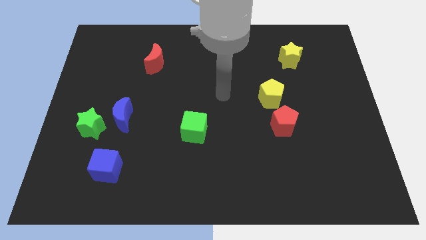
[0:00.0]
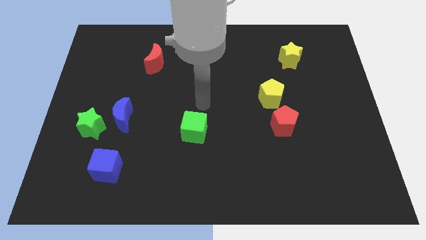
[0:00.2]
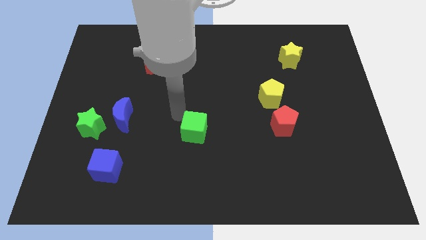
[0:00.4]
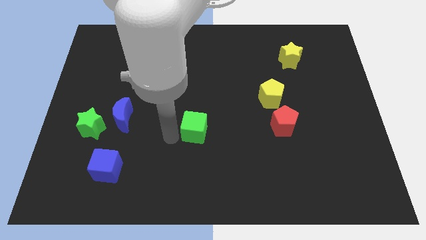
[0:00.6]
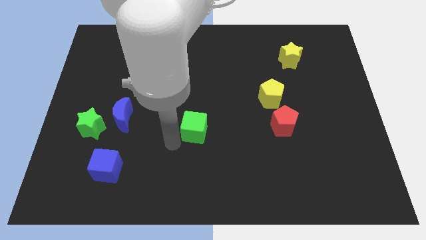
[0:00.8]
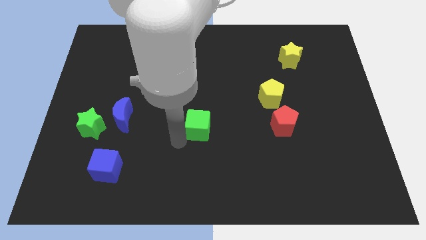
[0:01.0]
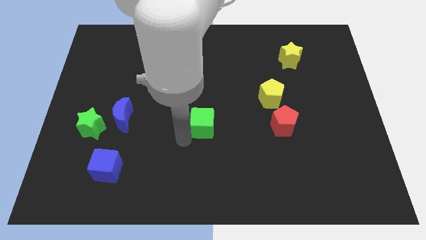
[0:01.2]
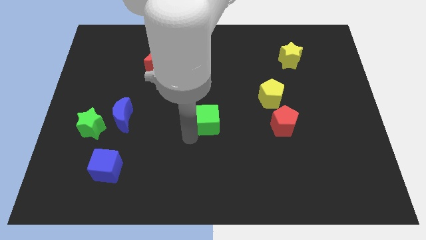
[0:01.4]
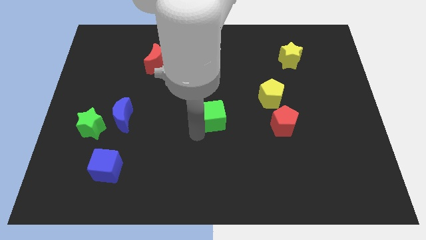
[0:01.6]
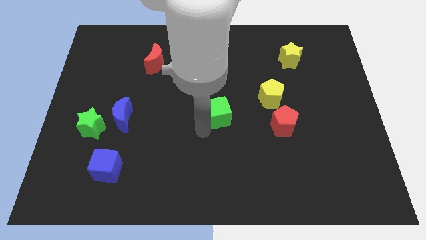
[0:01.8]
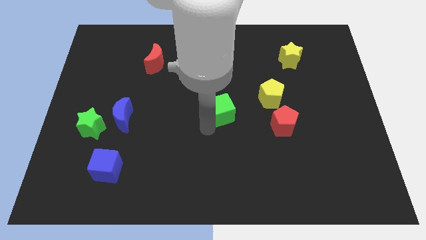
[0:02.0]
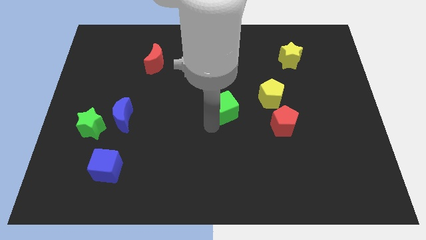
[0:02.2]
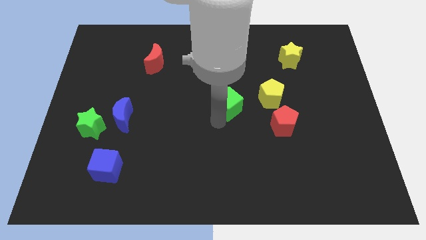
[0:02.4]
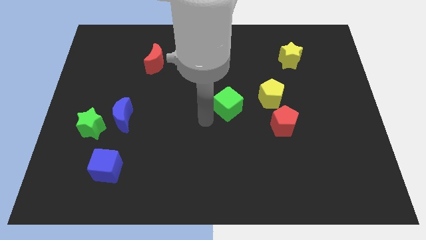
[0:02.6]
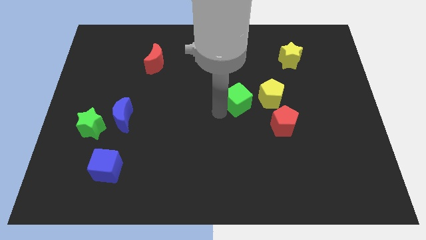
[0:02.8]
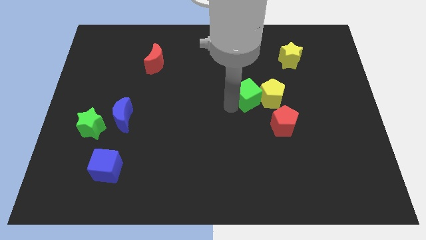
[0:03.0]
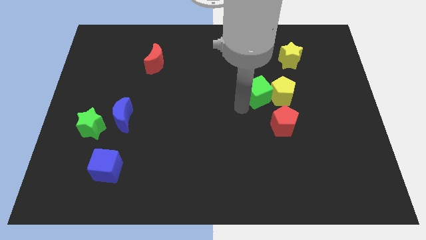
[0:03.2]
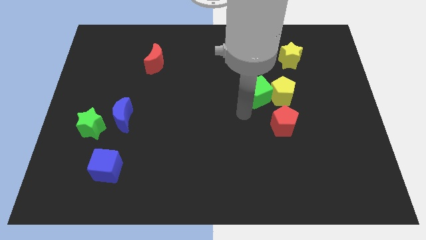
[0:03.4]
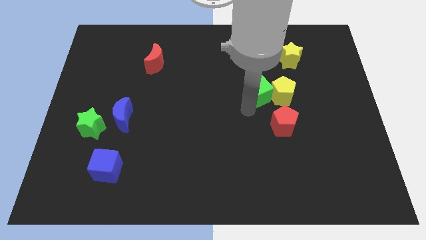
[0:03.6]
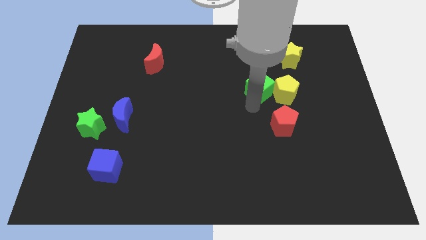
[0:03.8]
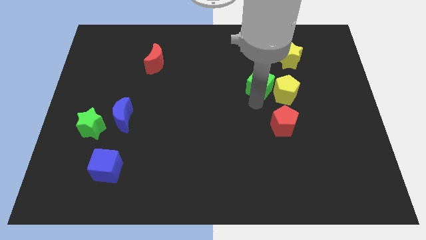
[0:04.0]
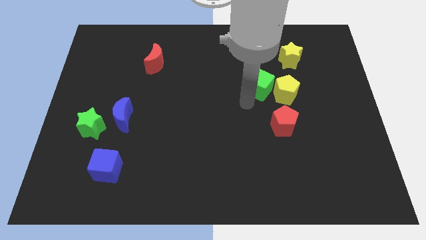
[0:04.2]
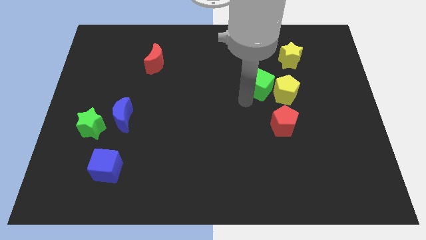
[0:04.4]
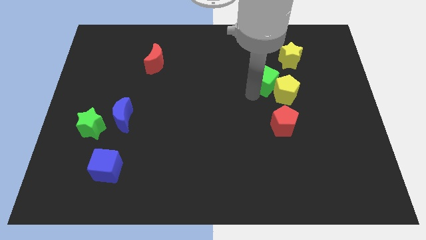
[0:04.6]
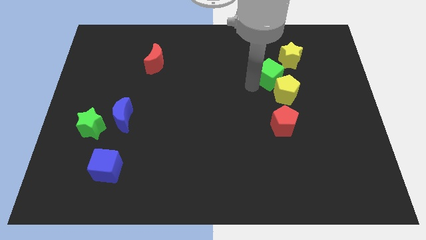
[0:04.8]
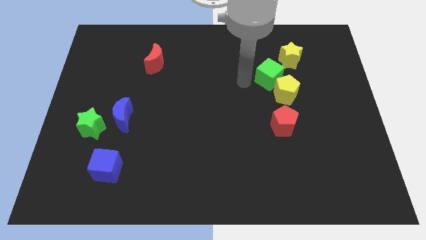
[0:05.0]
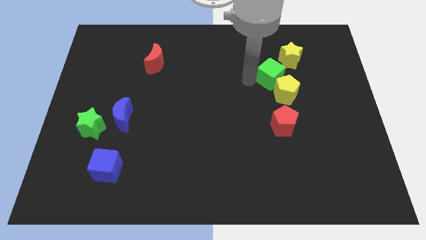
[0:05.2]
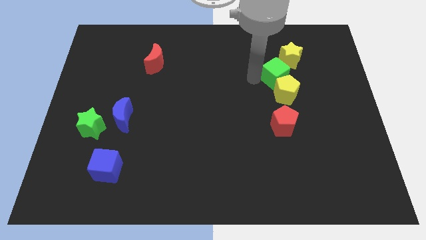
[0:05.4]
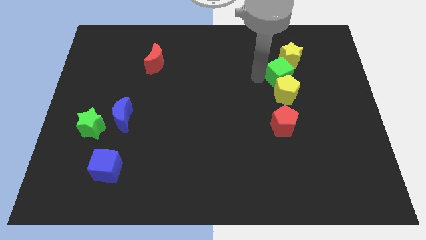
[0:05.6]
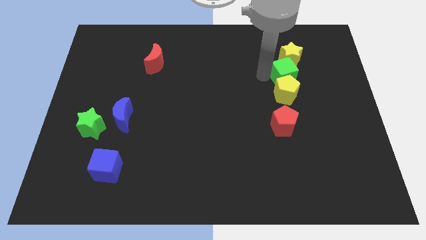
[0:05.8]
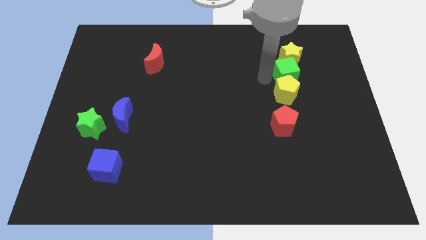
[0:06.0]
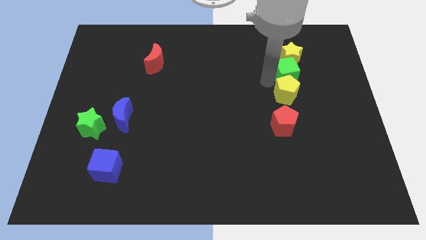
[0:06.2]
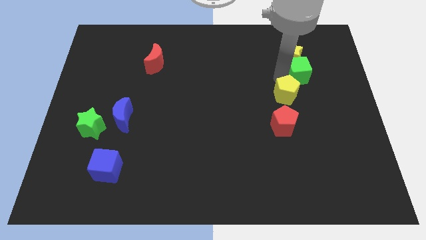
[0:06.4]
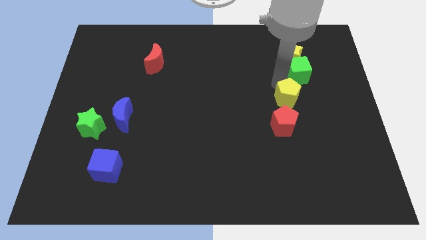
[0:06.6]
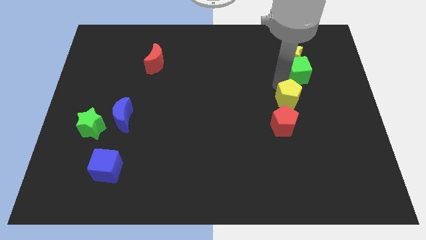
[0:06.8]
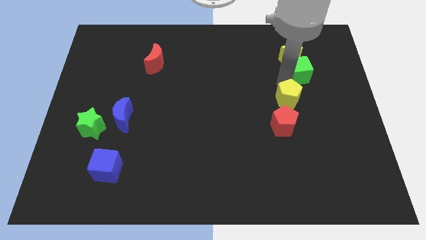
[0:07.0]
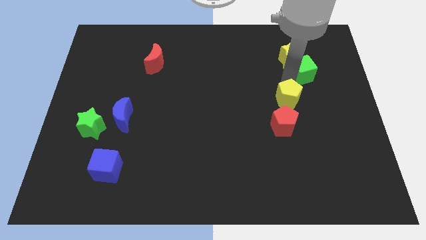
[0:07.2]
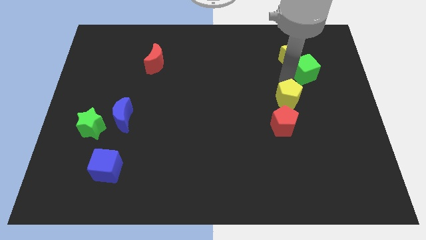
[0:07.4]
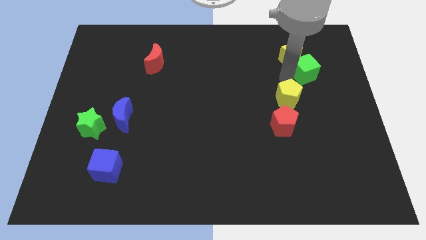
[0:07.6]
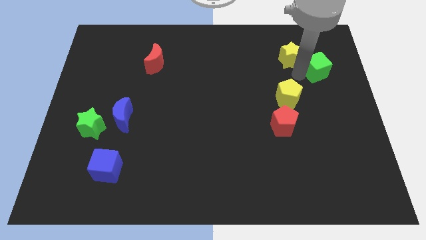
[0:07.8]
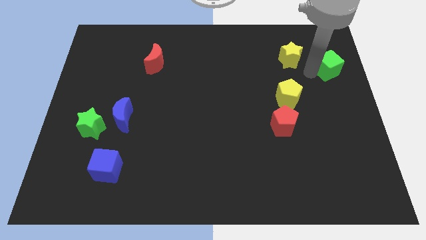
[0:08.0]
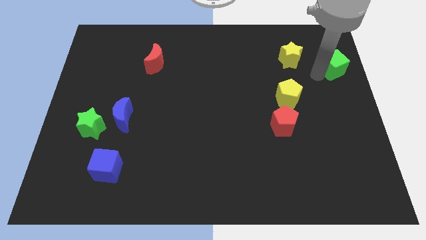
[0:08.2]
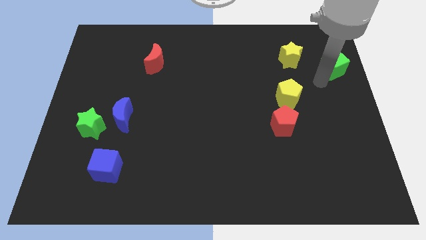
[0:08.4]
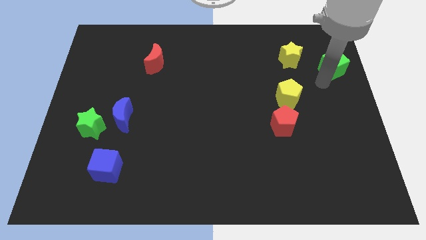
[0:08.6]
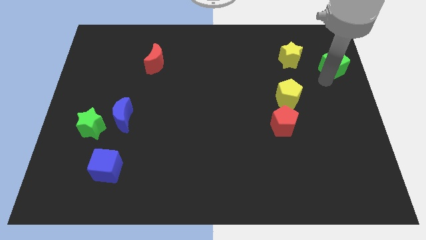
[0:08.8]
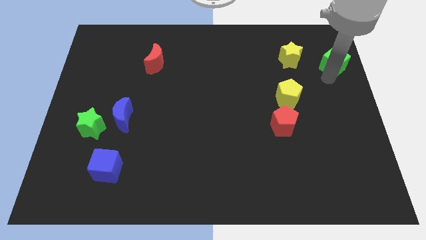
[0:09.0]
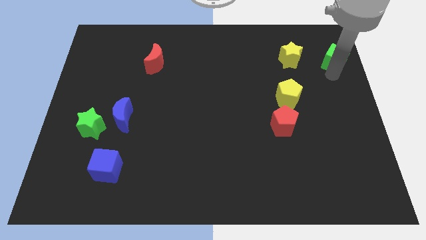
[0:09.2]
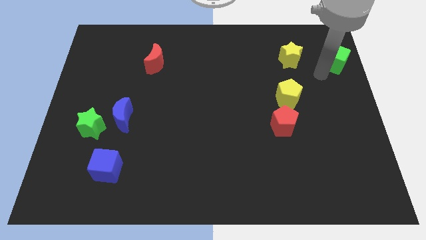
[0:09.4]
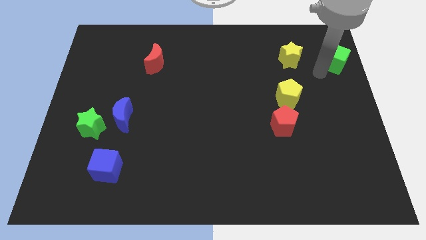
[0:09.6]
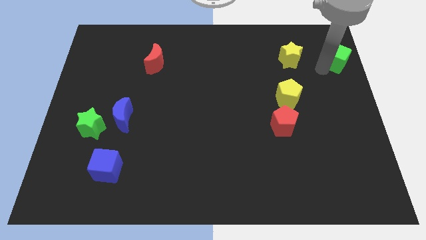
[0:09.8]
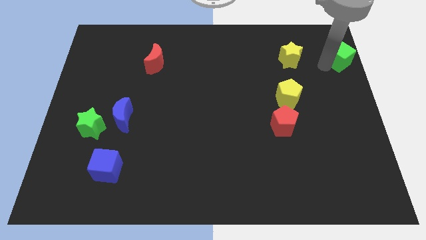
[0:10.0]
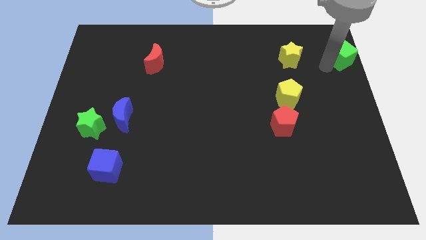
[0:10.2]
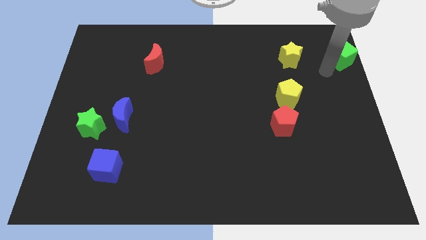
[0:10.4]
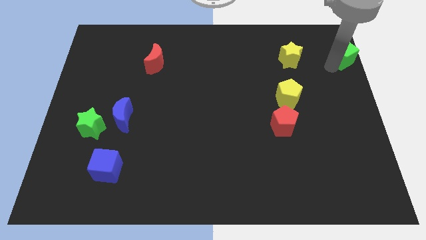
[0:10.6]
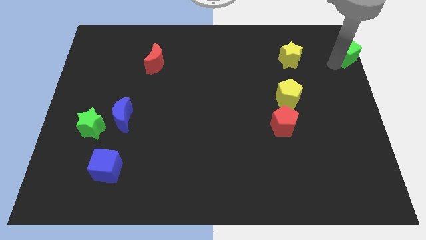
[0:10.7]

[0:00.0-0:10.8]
move the green cube to the top right of the board

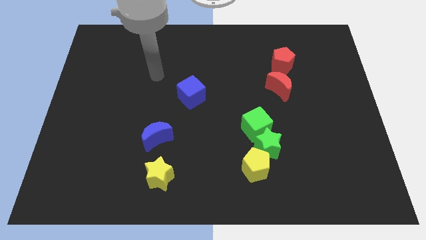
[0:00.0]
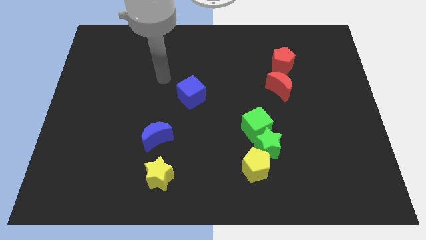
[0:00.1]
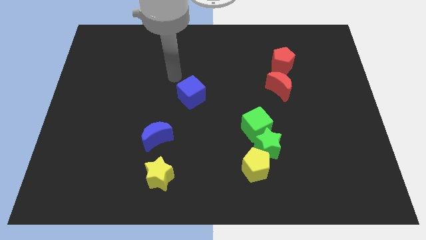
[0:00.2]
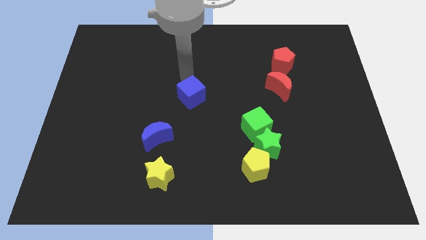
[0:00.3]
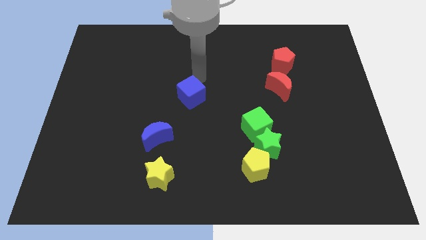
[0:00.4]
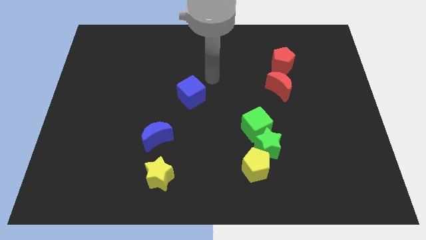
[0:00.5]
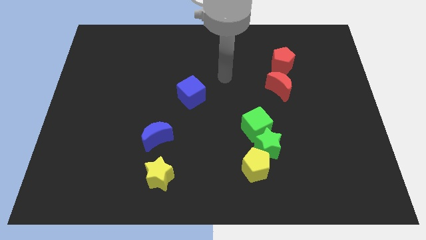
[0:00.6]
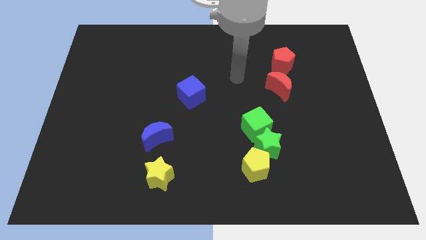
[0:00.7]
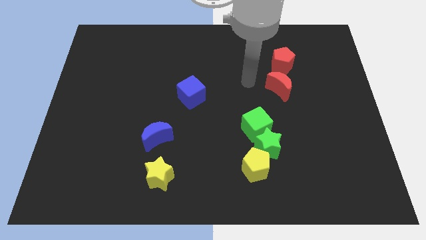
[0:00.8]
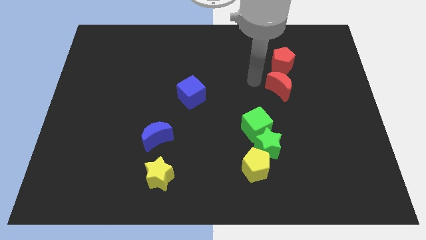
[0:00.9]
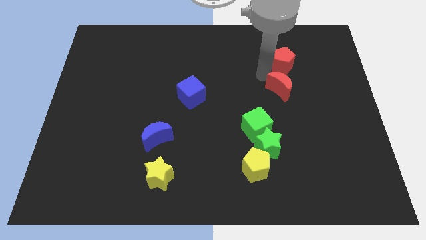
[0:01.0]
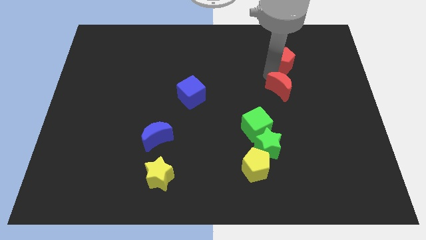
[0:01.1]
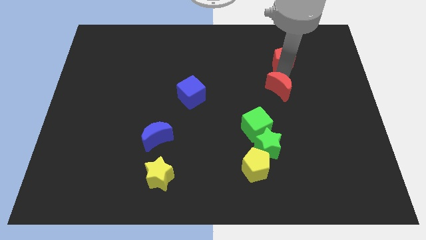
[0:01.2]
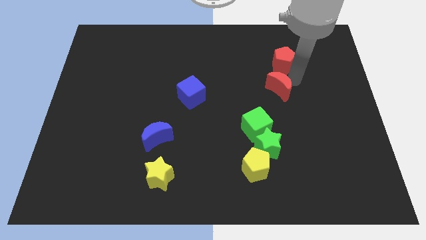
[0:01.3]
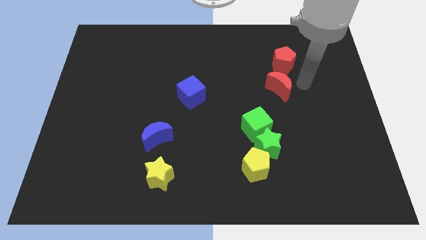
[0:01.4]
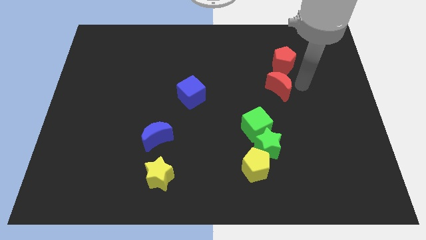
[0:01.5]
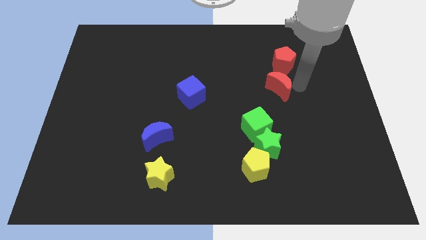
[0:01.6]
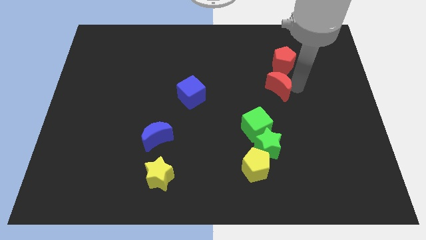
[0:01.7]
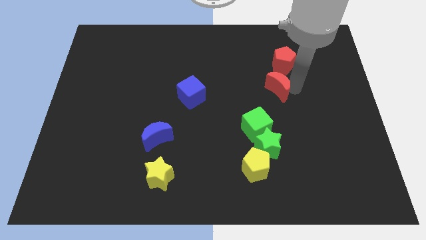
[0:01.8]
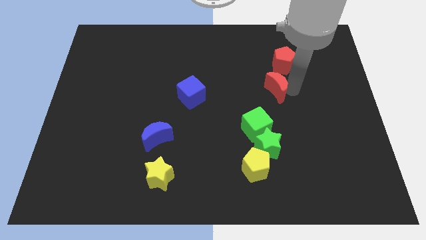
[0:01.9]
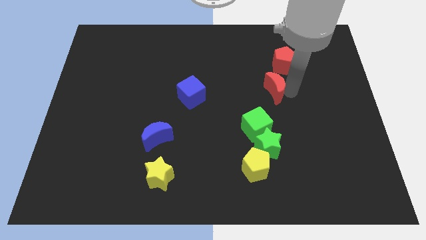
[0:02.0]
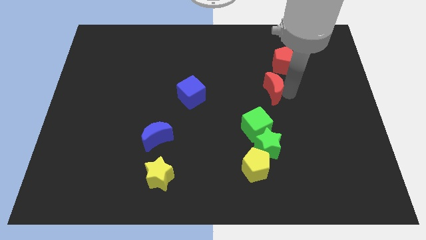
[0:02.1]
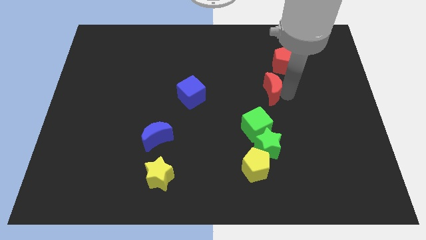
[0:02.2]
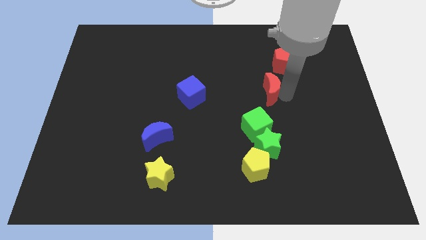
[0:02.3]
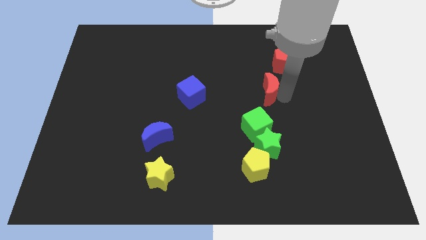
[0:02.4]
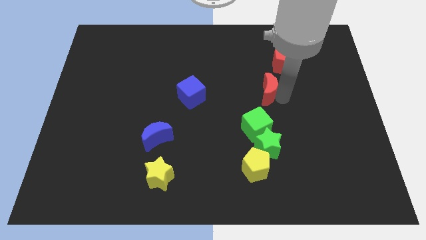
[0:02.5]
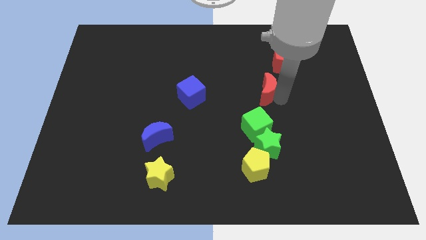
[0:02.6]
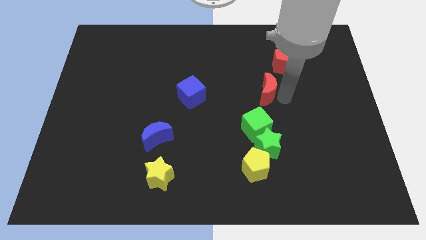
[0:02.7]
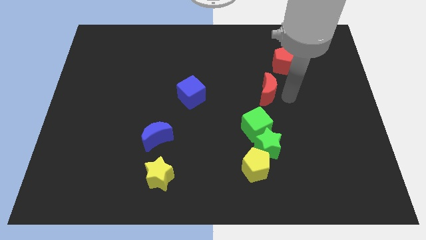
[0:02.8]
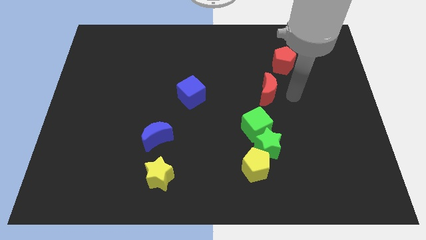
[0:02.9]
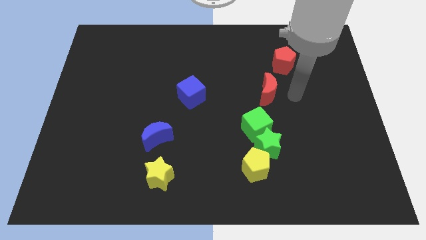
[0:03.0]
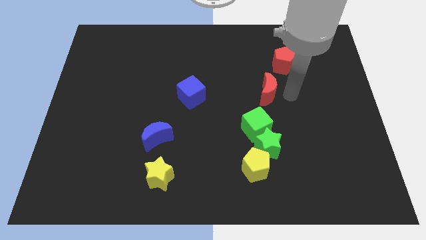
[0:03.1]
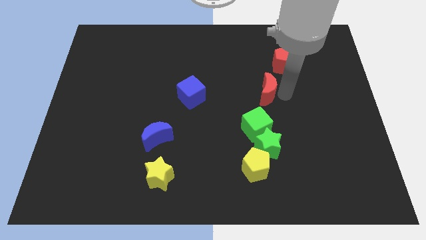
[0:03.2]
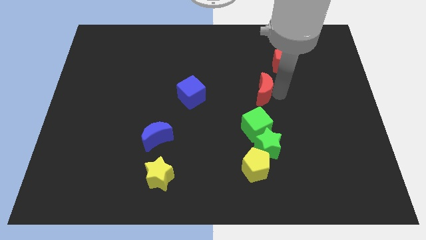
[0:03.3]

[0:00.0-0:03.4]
slide the red moon to the middle
